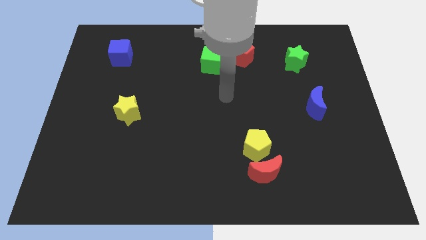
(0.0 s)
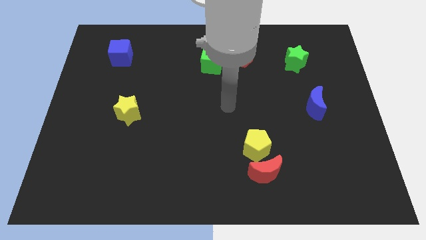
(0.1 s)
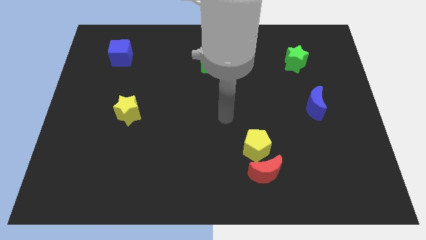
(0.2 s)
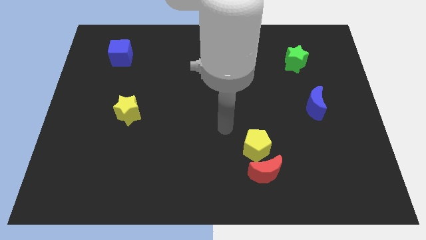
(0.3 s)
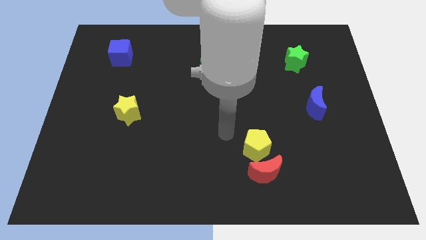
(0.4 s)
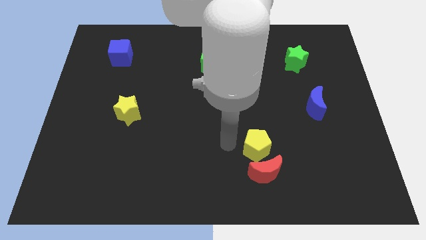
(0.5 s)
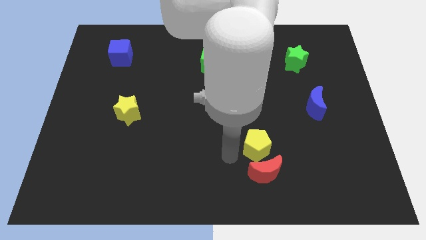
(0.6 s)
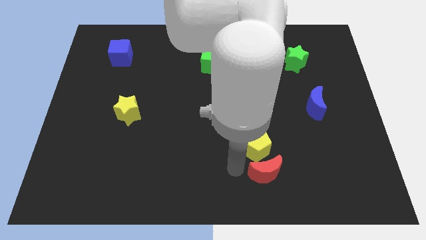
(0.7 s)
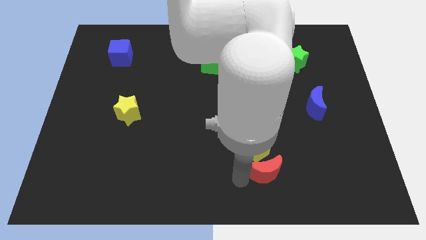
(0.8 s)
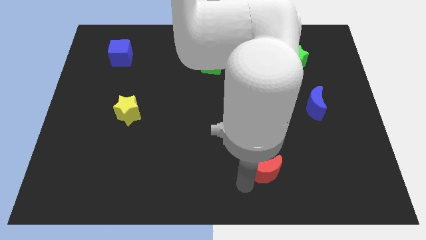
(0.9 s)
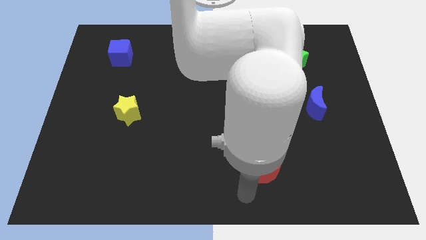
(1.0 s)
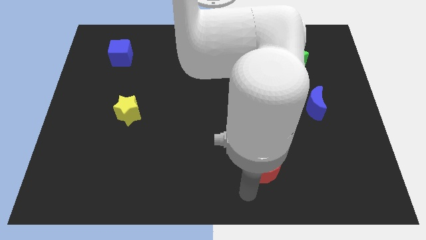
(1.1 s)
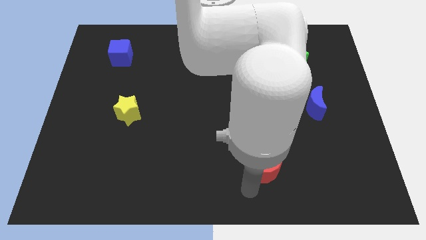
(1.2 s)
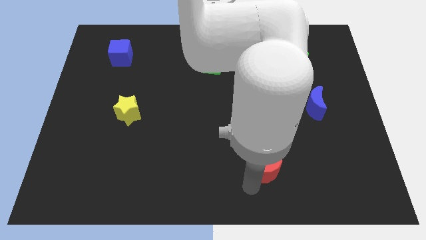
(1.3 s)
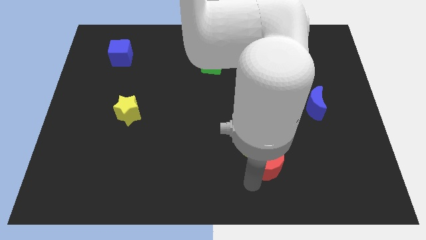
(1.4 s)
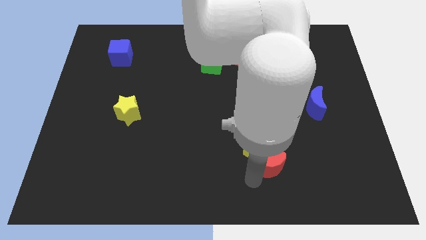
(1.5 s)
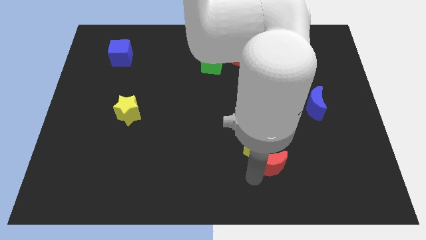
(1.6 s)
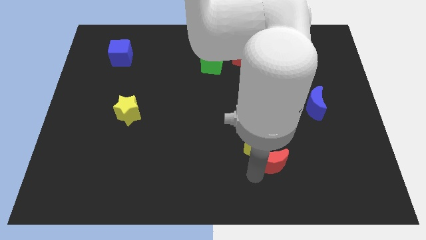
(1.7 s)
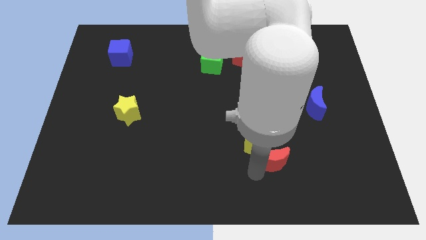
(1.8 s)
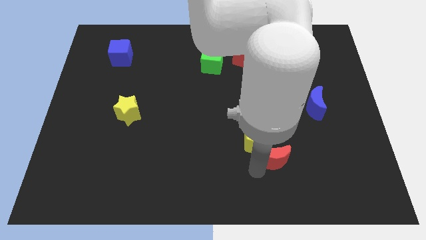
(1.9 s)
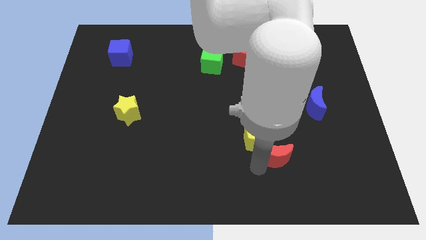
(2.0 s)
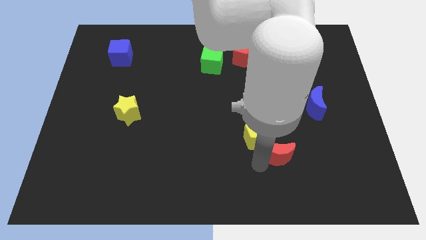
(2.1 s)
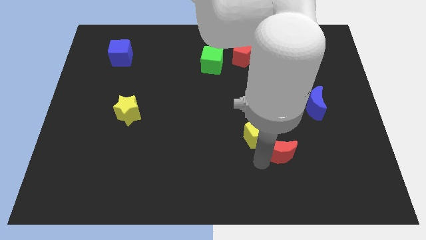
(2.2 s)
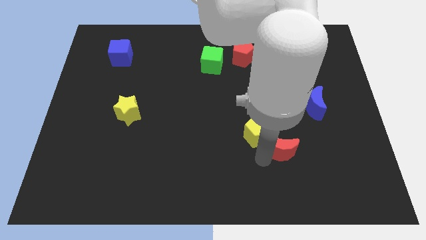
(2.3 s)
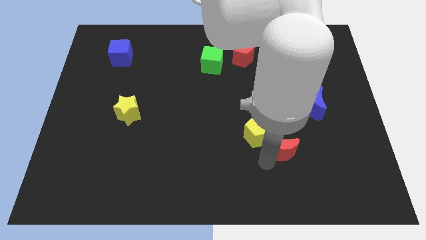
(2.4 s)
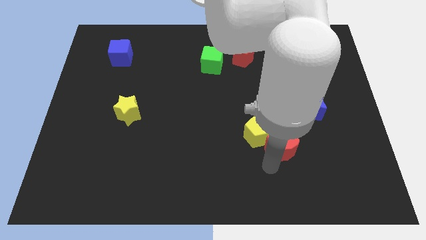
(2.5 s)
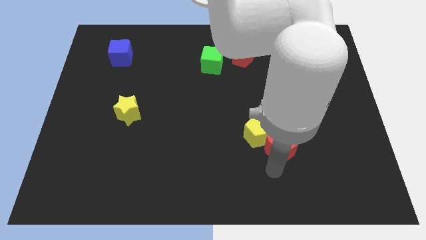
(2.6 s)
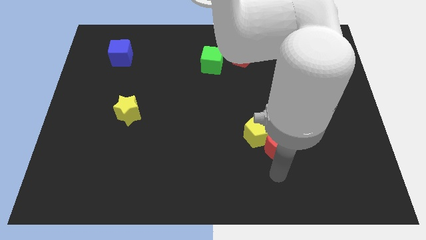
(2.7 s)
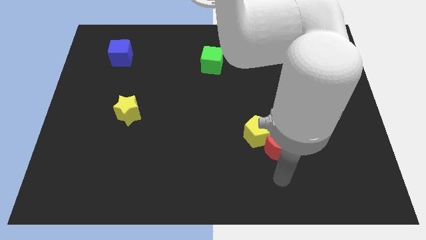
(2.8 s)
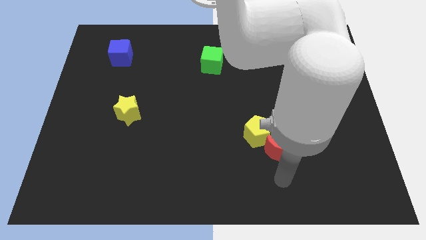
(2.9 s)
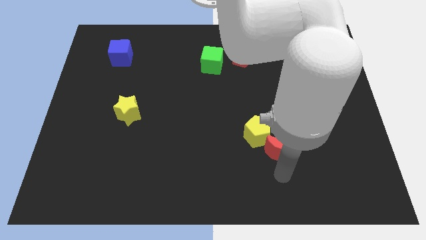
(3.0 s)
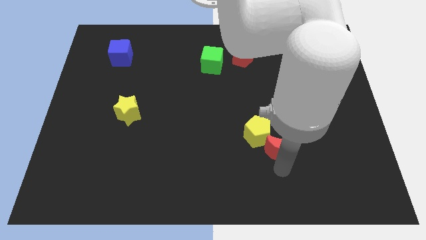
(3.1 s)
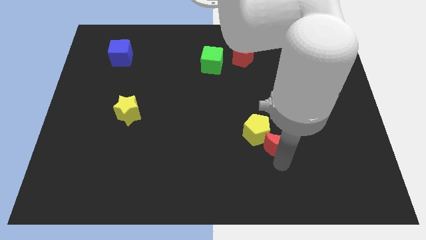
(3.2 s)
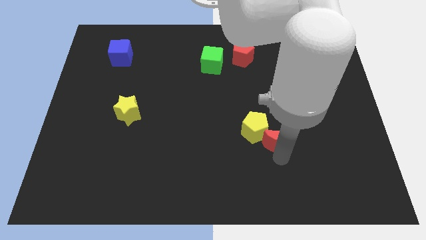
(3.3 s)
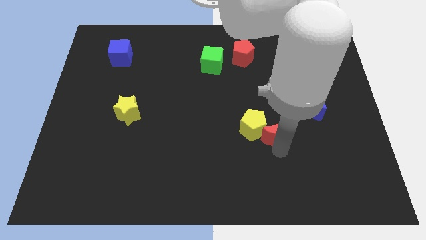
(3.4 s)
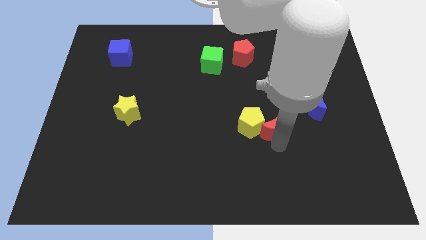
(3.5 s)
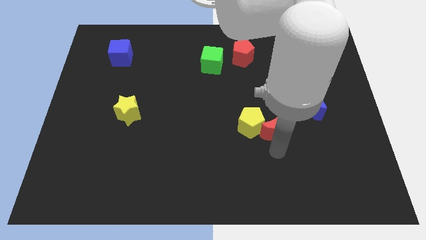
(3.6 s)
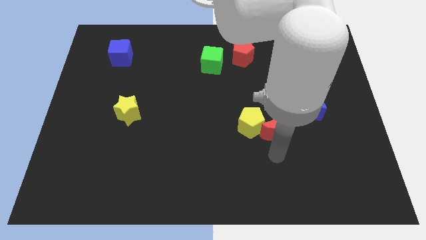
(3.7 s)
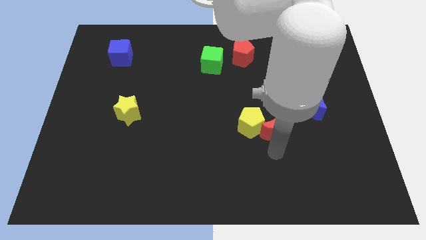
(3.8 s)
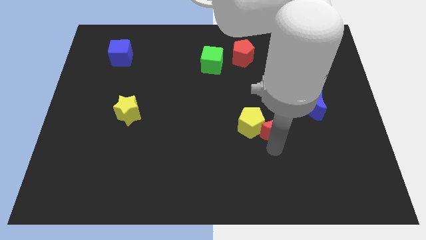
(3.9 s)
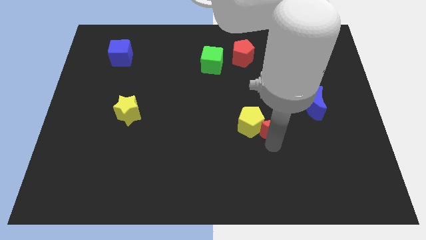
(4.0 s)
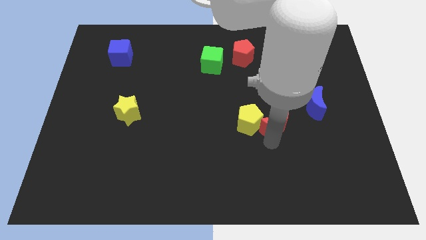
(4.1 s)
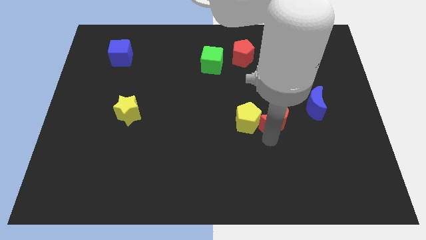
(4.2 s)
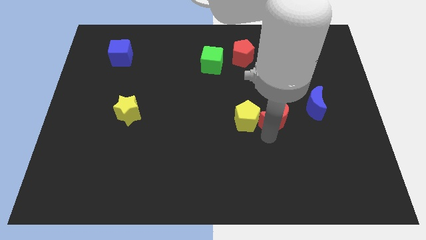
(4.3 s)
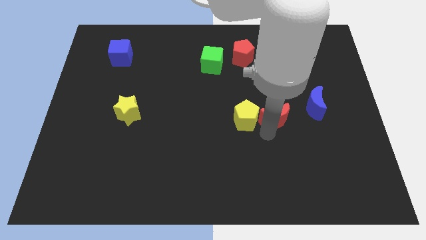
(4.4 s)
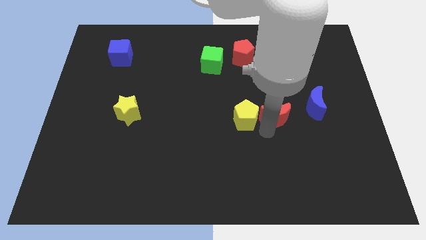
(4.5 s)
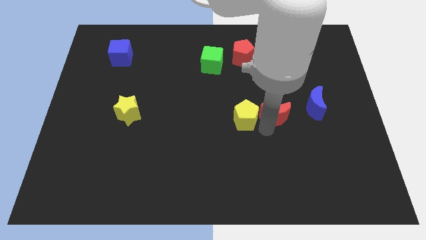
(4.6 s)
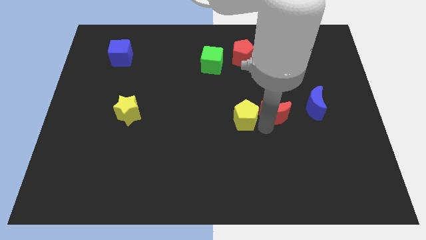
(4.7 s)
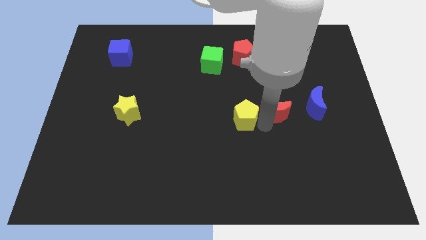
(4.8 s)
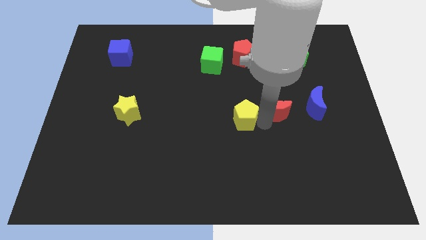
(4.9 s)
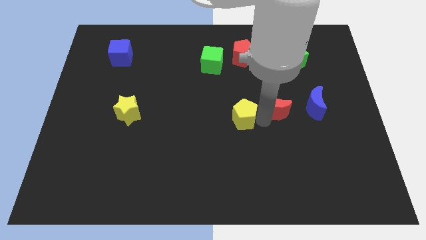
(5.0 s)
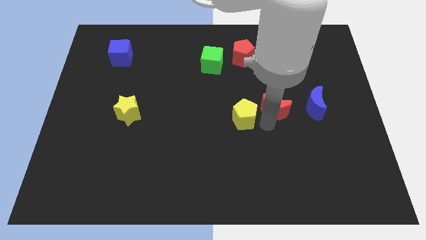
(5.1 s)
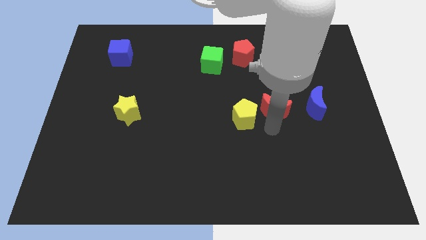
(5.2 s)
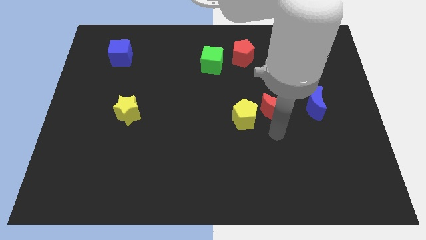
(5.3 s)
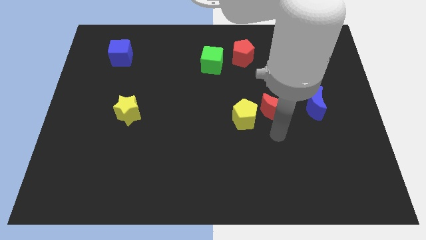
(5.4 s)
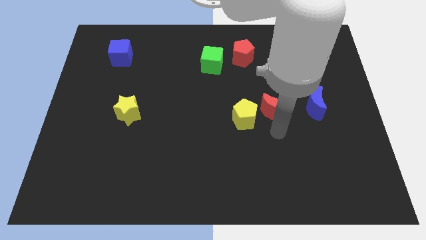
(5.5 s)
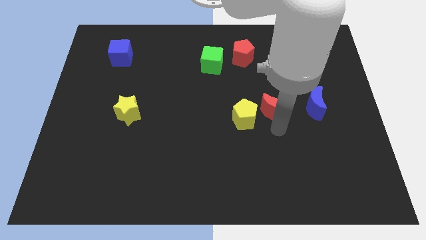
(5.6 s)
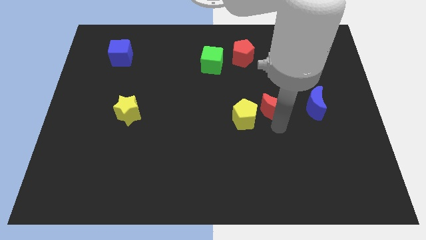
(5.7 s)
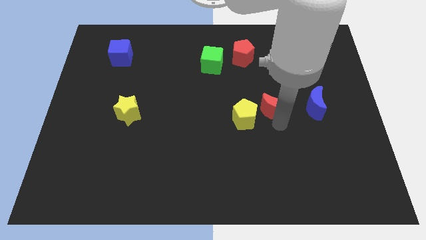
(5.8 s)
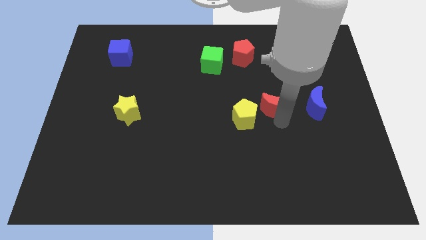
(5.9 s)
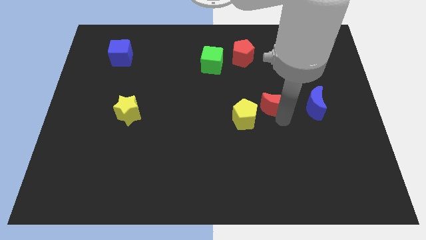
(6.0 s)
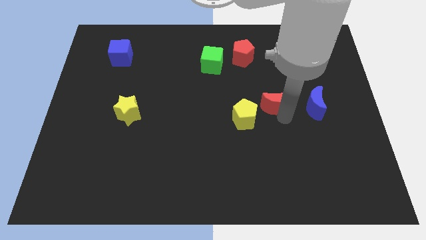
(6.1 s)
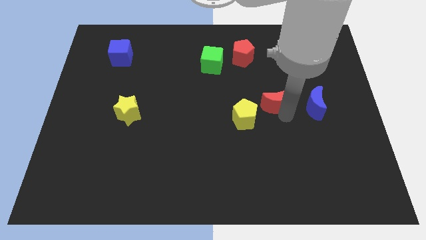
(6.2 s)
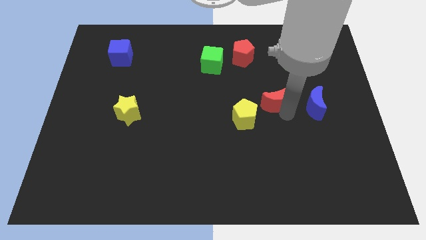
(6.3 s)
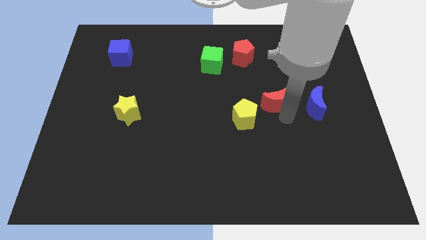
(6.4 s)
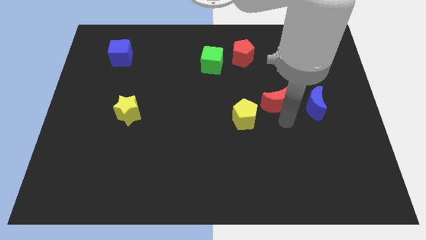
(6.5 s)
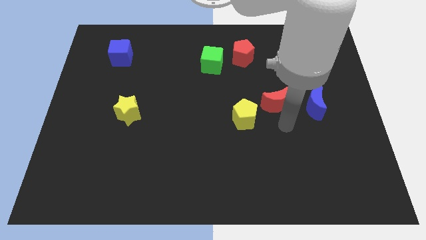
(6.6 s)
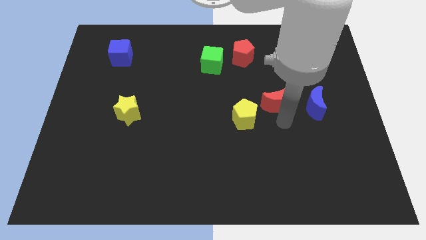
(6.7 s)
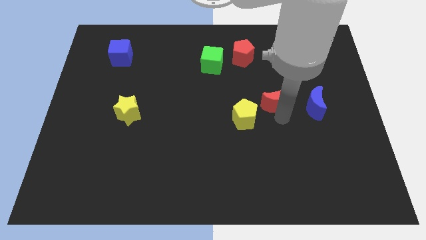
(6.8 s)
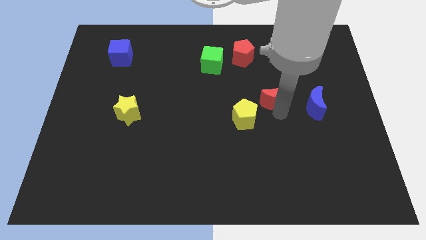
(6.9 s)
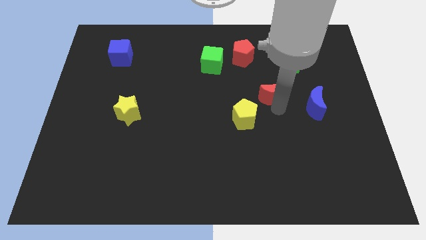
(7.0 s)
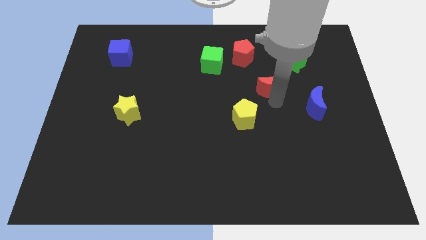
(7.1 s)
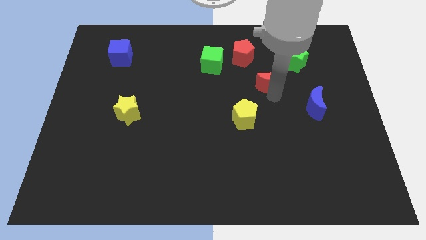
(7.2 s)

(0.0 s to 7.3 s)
slide the red moon to the bottom right side of the red pentagon
